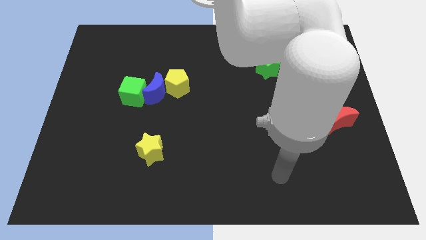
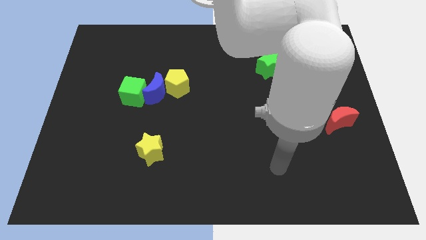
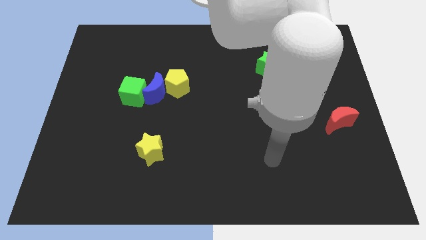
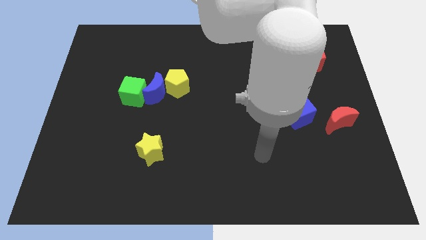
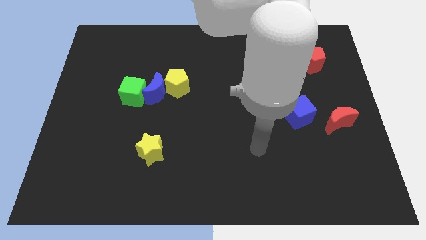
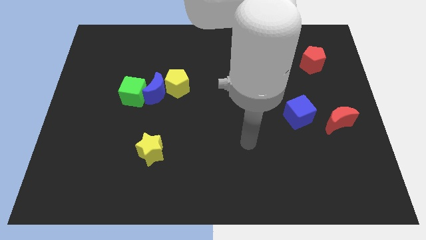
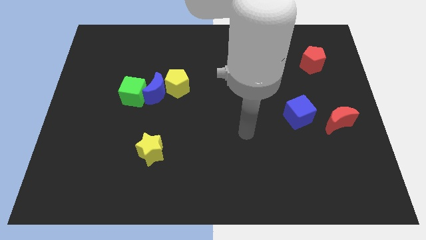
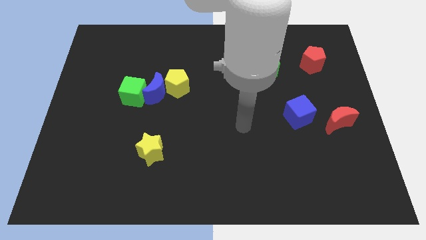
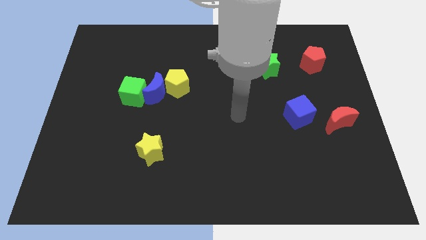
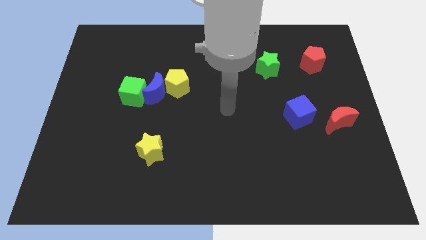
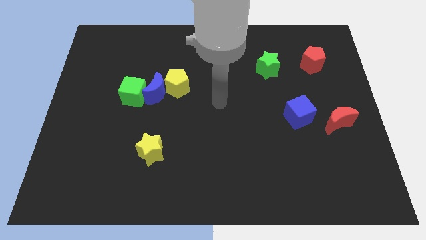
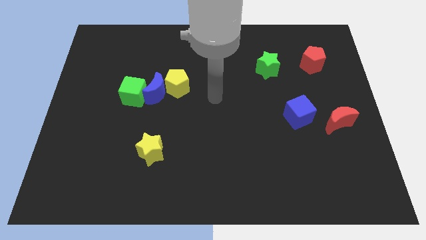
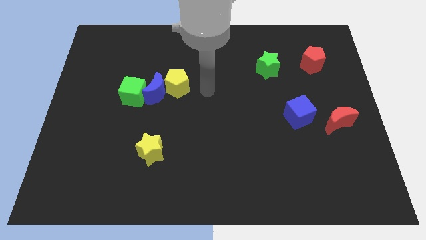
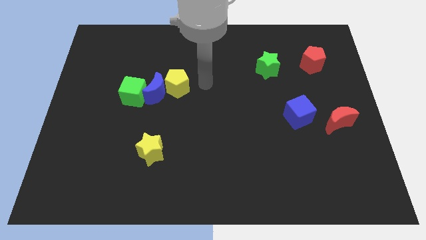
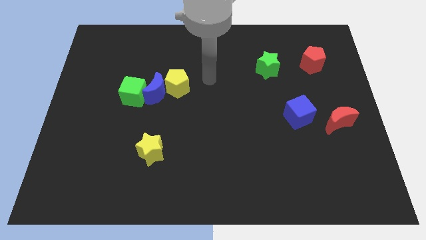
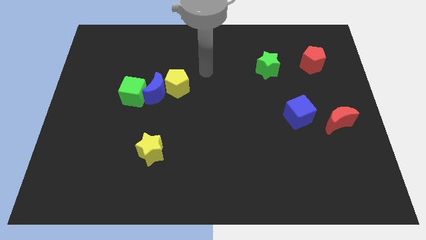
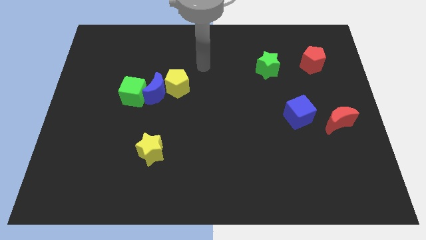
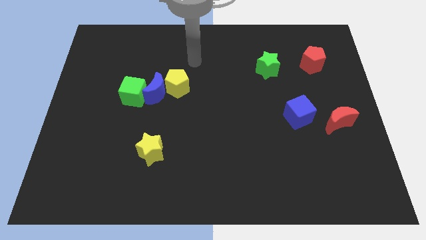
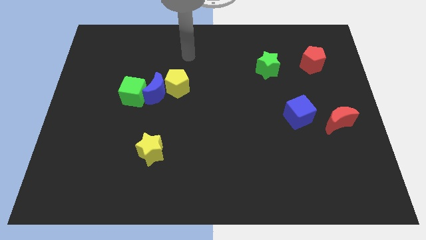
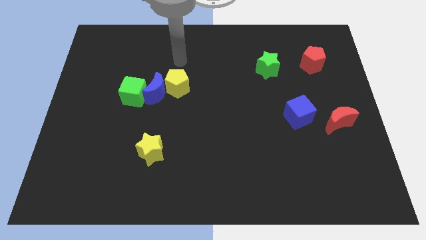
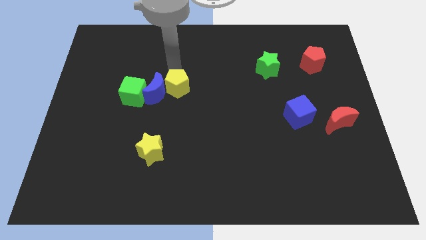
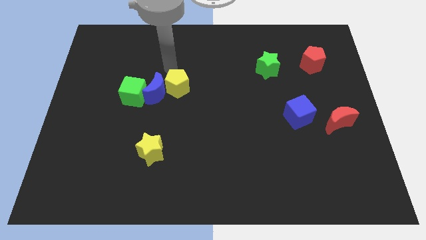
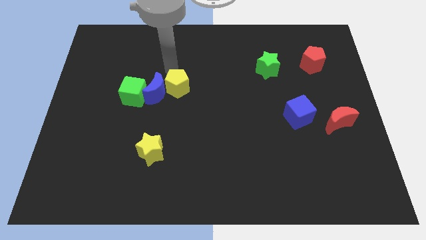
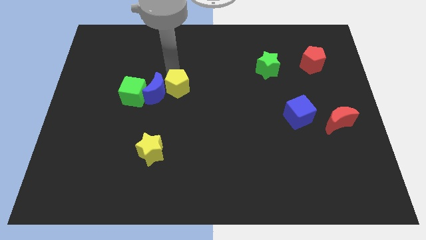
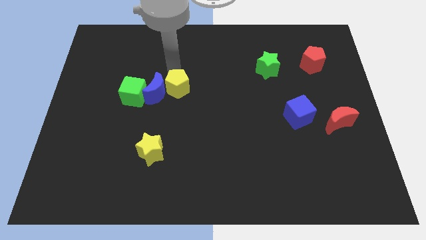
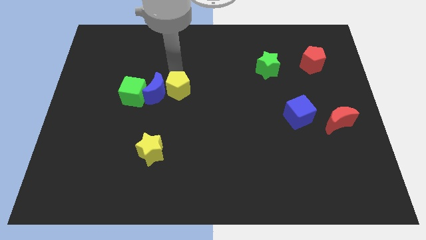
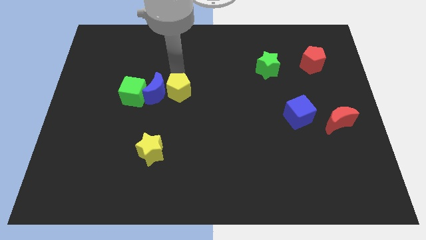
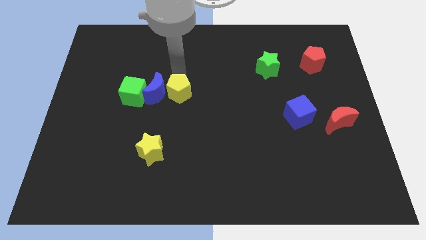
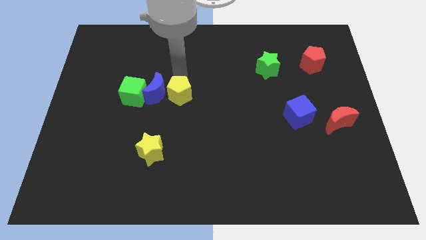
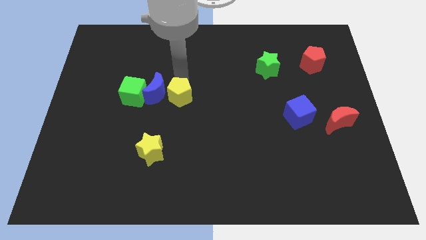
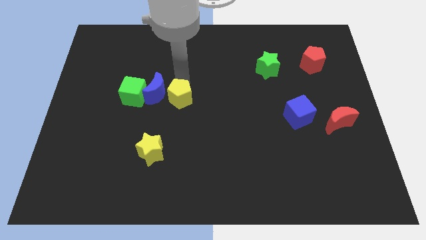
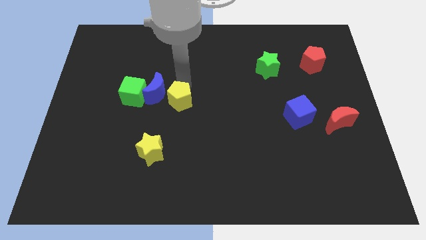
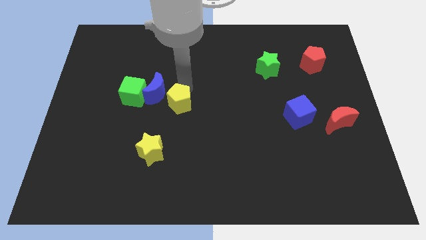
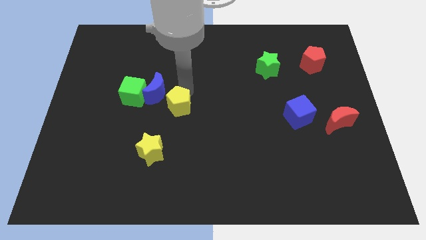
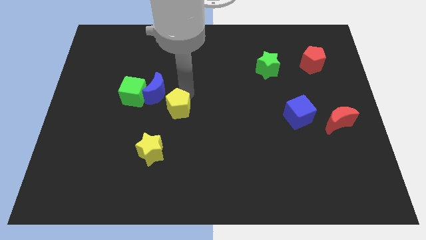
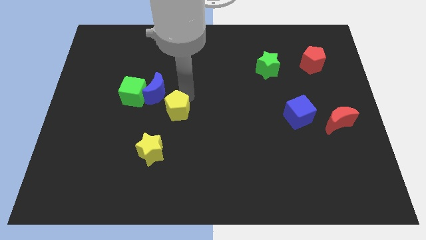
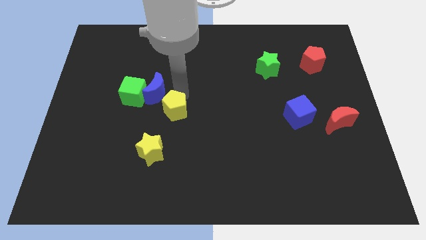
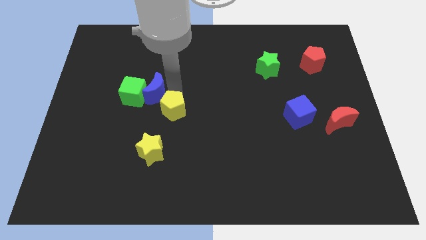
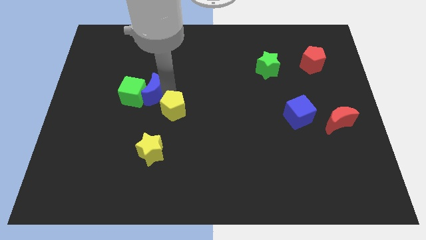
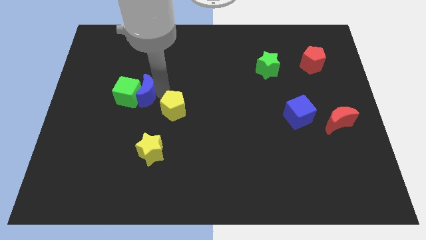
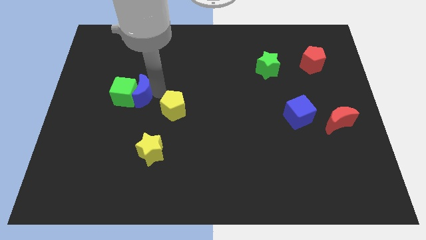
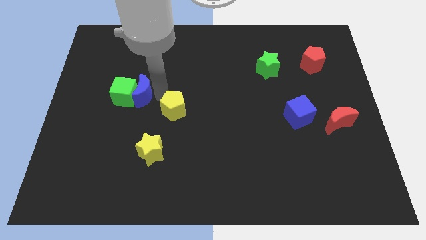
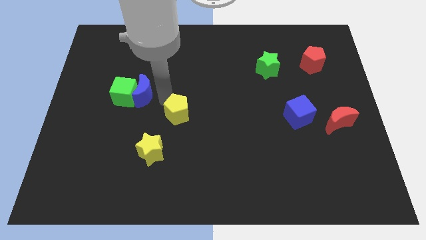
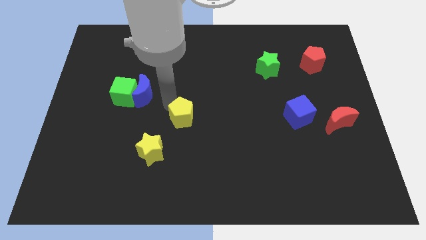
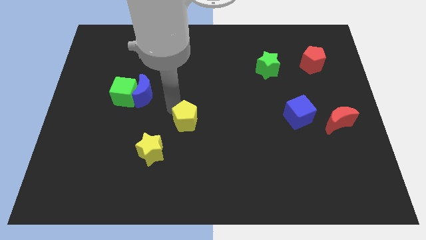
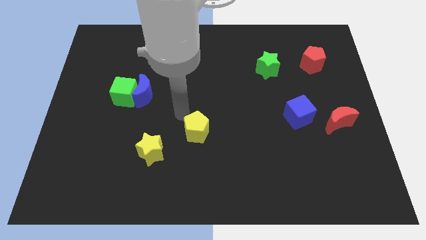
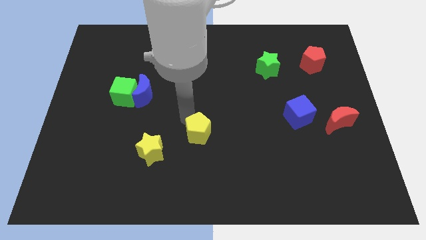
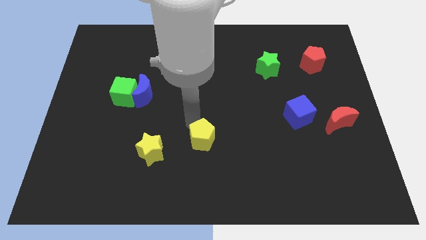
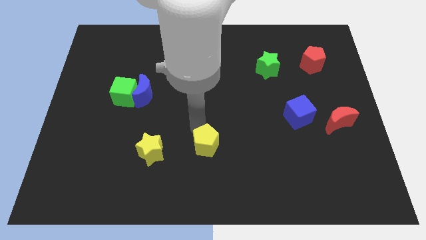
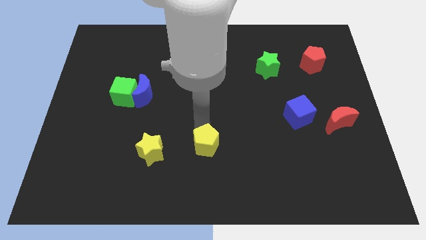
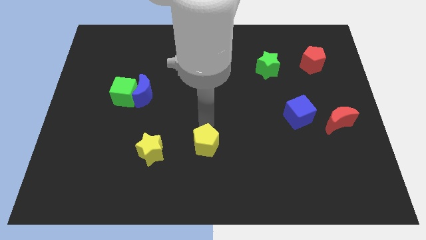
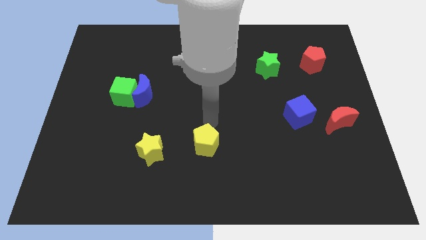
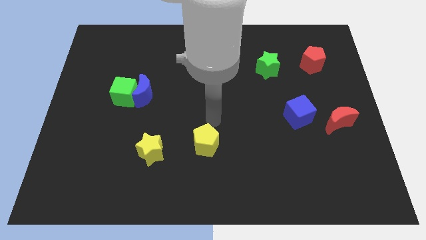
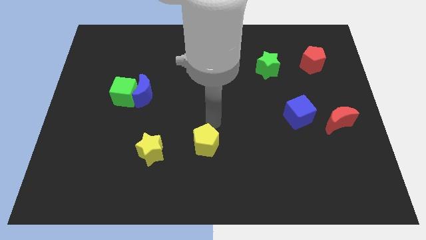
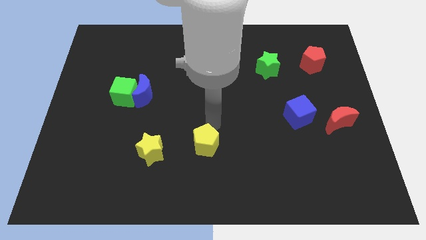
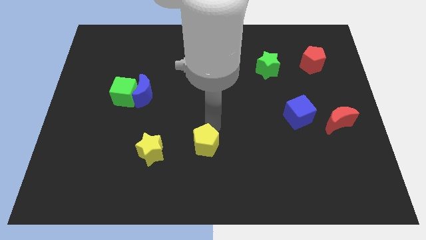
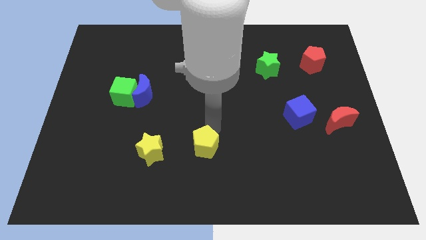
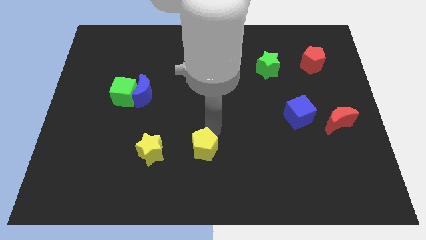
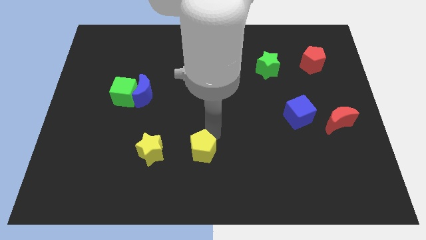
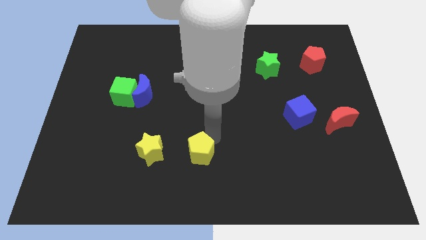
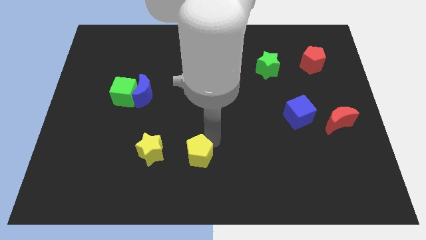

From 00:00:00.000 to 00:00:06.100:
move the yellow pentagon to the bottom side
